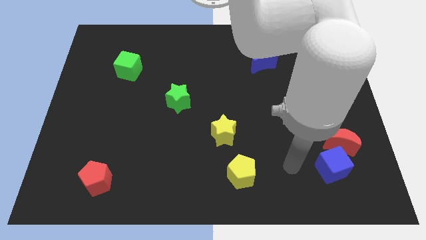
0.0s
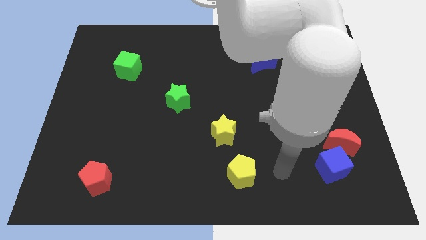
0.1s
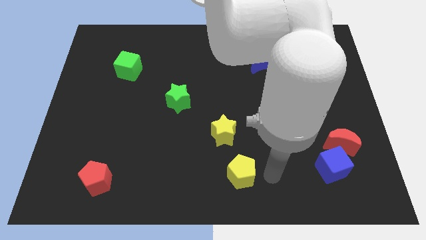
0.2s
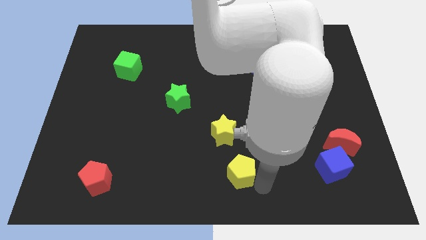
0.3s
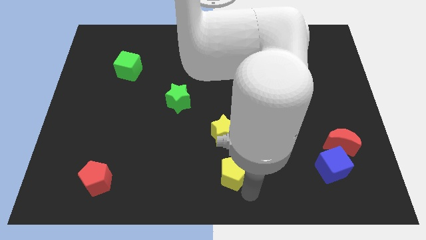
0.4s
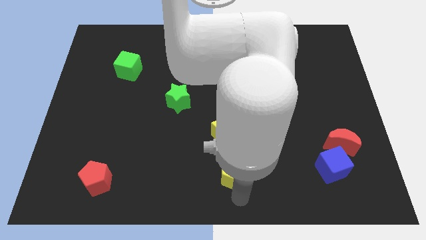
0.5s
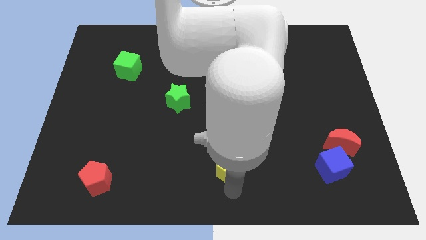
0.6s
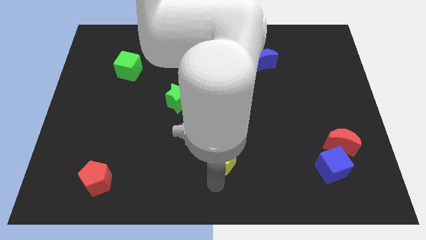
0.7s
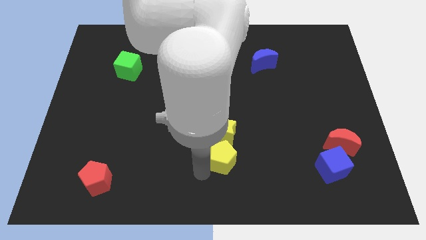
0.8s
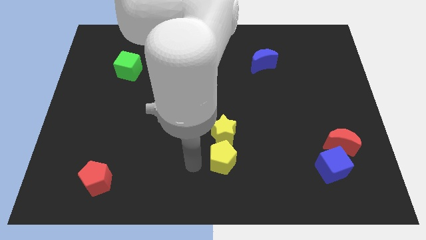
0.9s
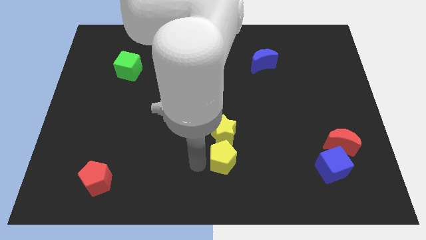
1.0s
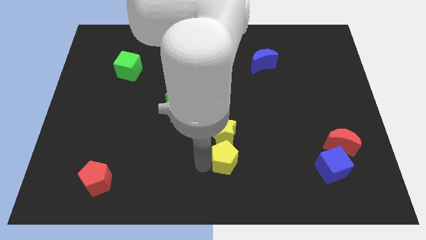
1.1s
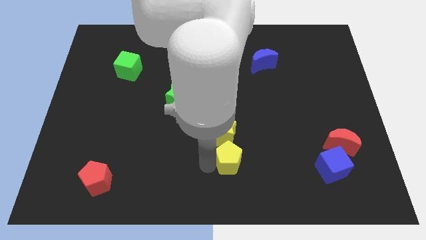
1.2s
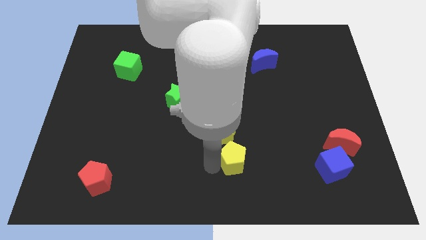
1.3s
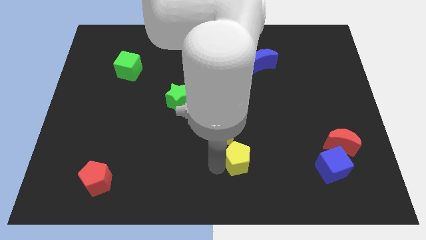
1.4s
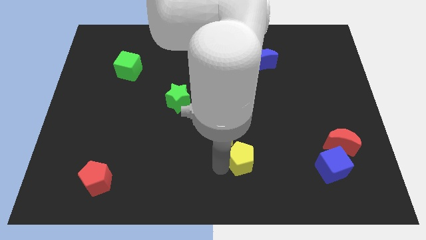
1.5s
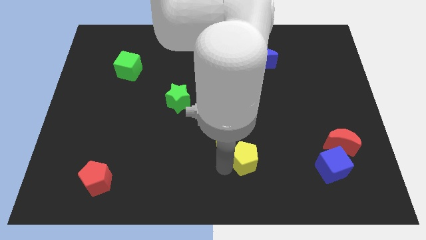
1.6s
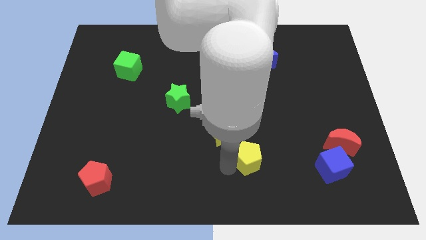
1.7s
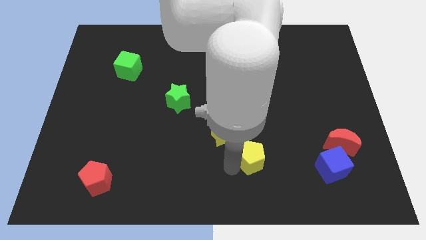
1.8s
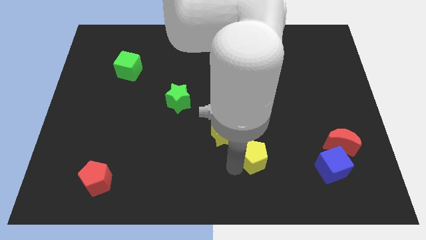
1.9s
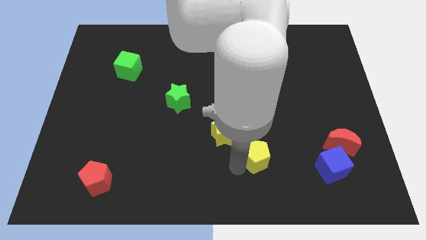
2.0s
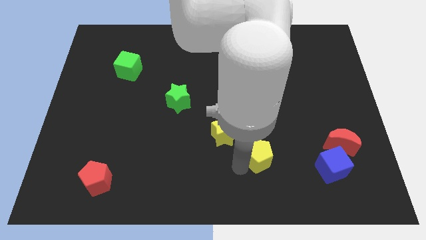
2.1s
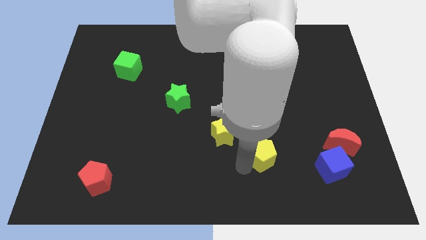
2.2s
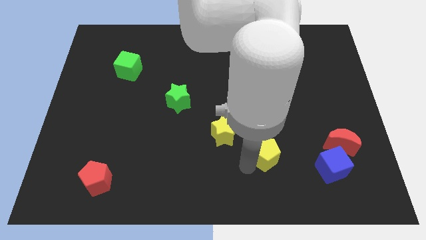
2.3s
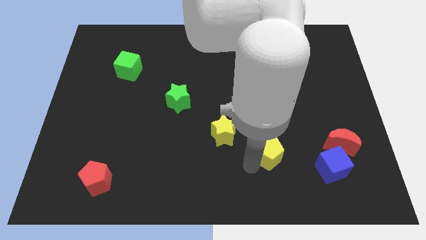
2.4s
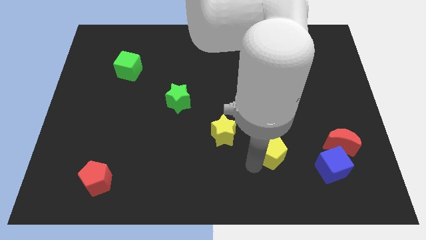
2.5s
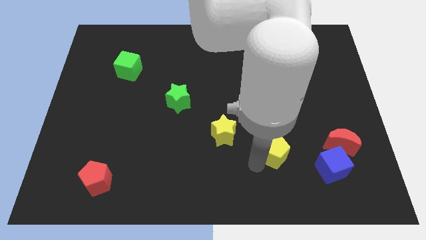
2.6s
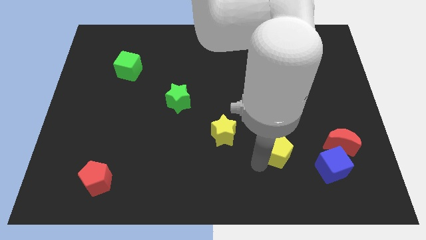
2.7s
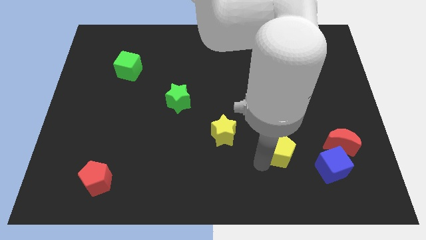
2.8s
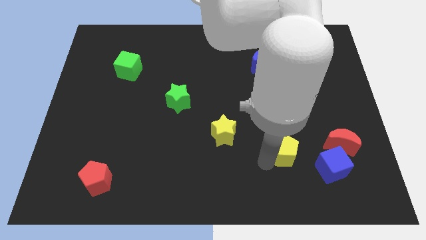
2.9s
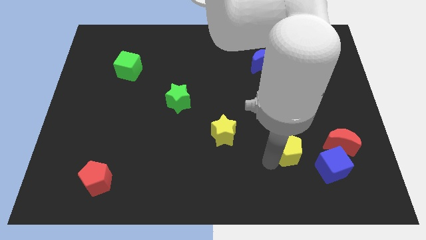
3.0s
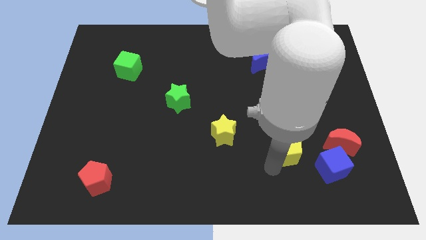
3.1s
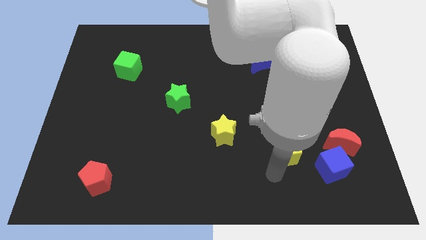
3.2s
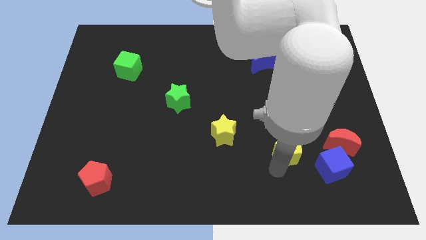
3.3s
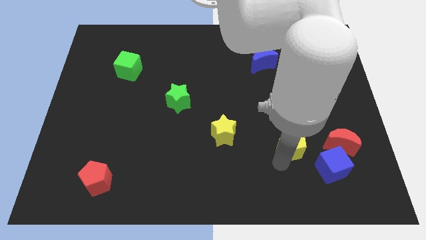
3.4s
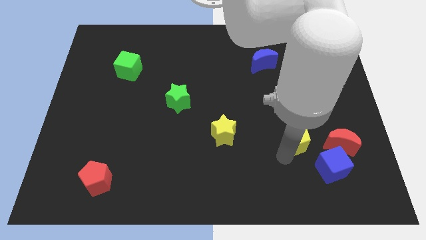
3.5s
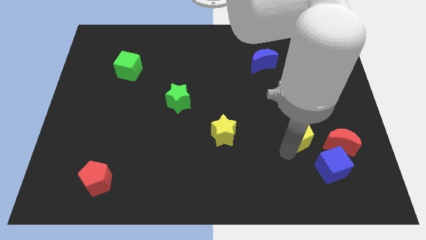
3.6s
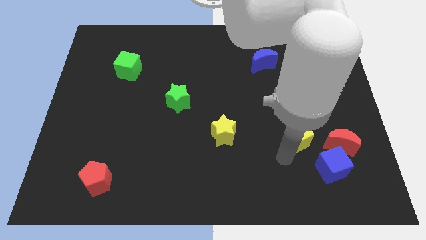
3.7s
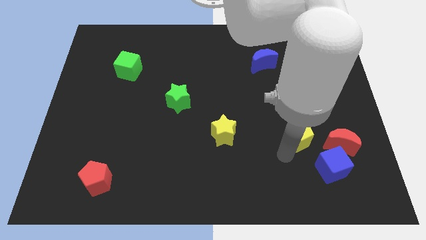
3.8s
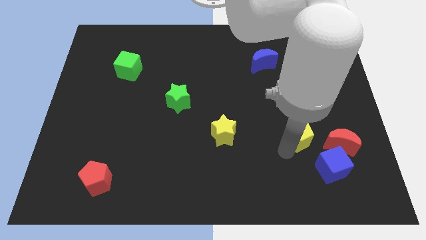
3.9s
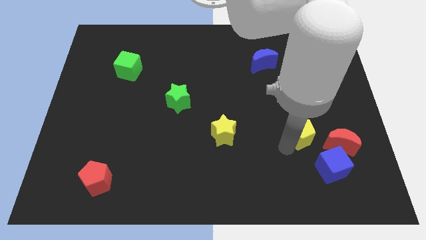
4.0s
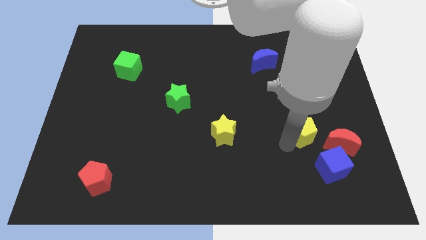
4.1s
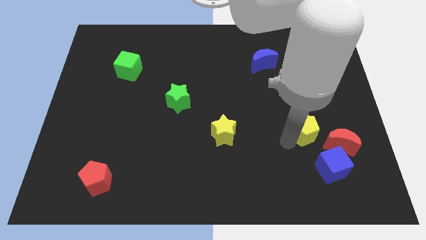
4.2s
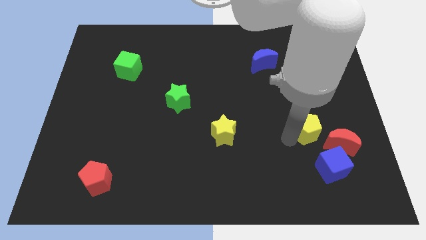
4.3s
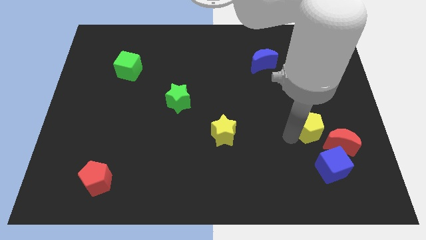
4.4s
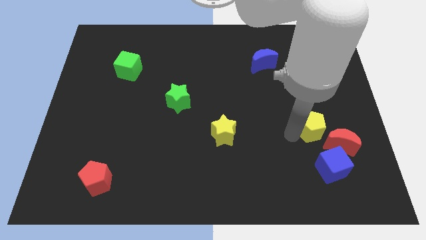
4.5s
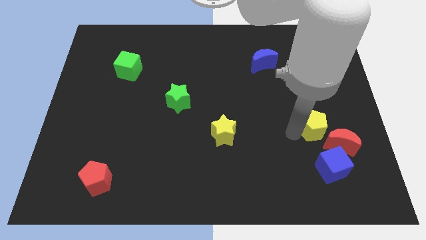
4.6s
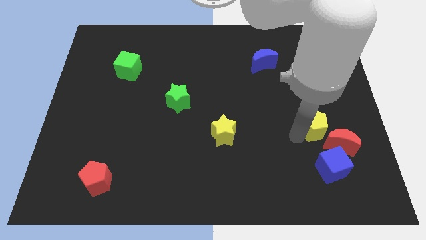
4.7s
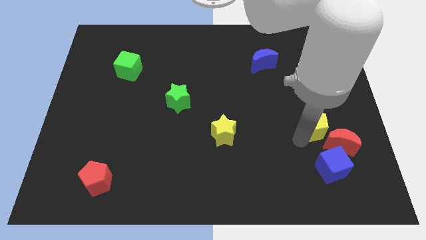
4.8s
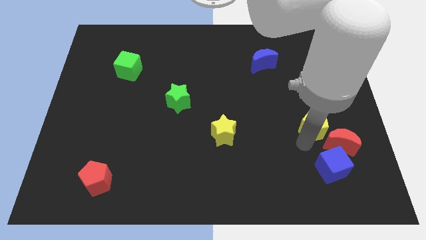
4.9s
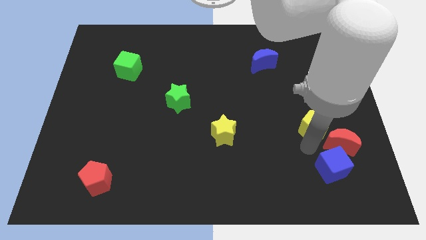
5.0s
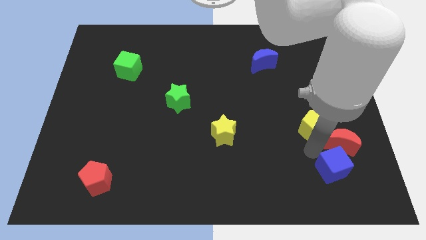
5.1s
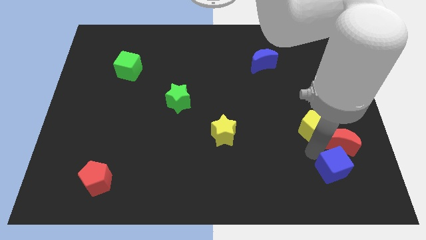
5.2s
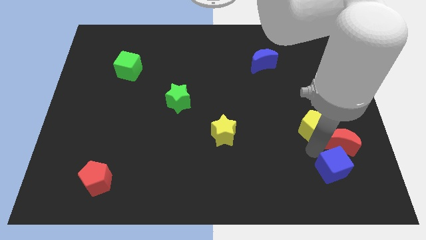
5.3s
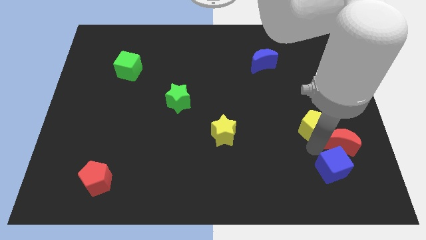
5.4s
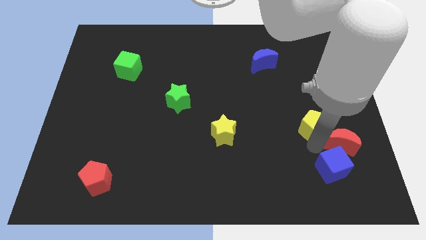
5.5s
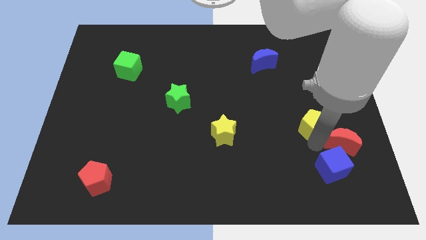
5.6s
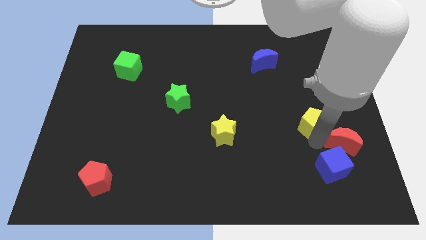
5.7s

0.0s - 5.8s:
slide the yellow pentagon upwards and to the right diagonally

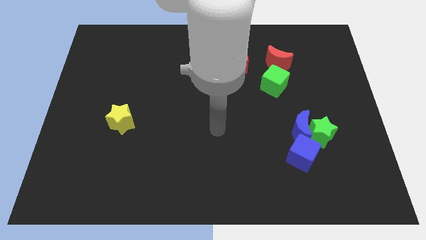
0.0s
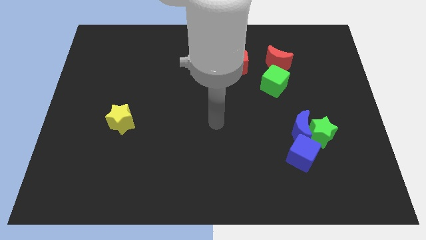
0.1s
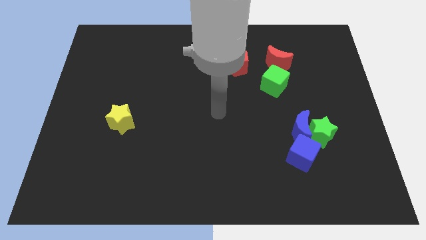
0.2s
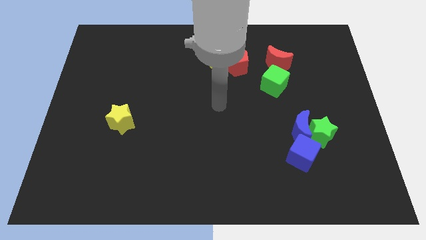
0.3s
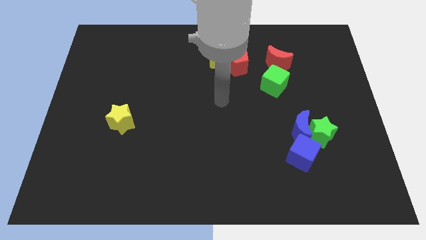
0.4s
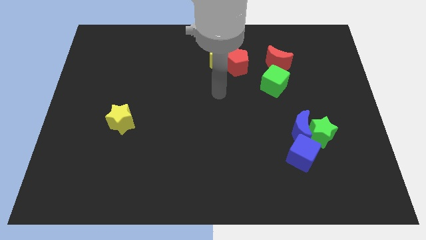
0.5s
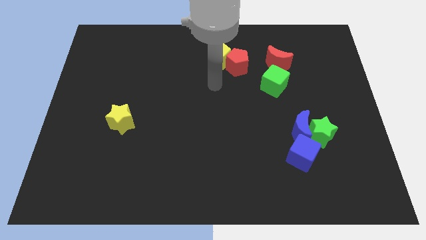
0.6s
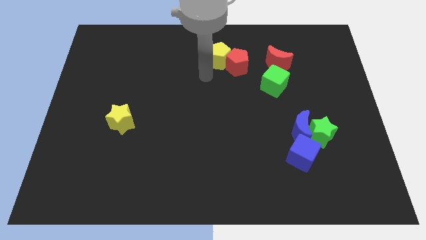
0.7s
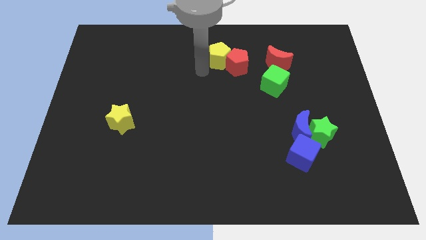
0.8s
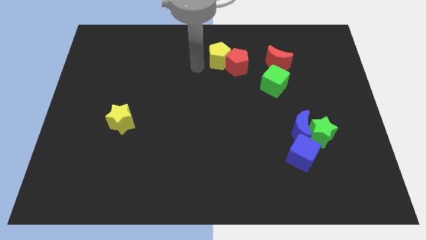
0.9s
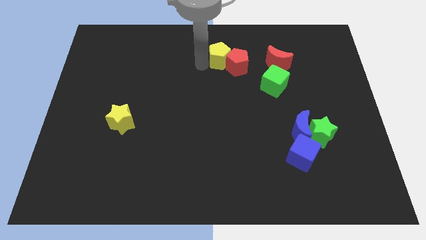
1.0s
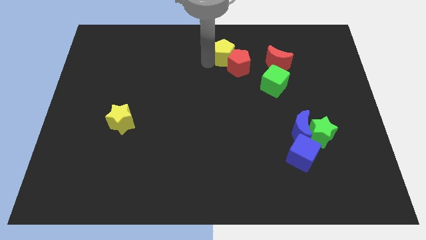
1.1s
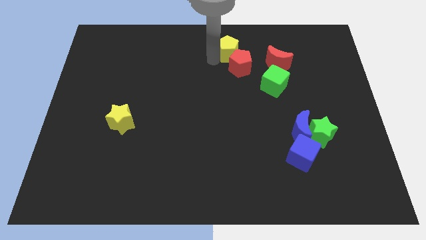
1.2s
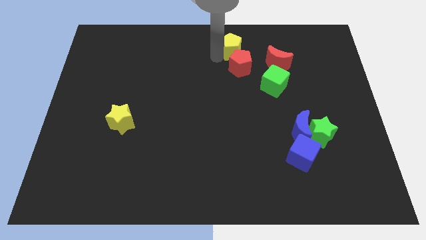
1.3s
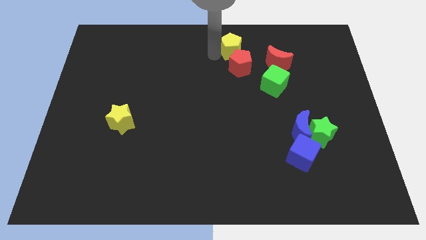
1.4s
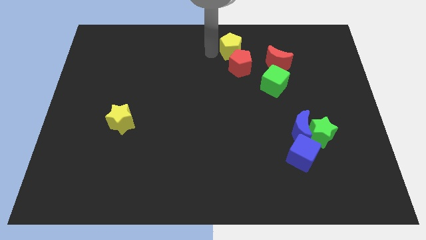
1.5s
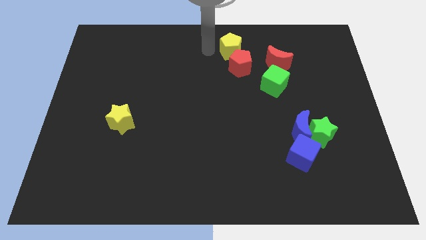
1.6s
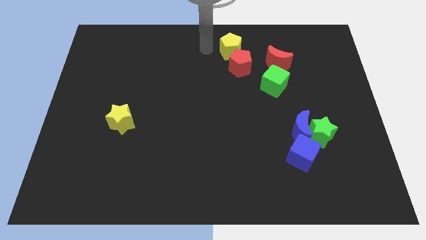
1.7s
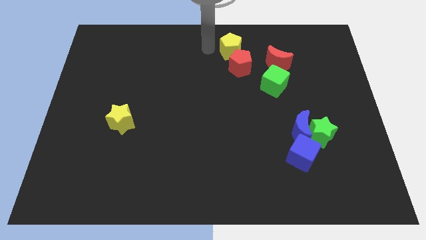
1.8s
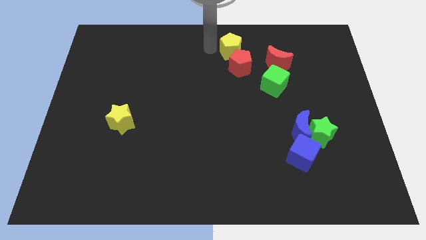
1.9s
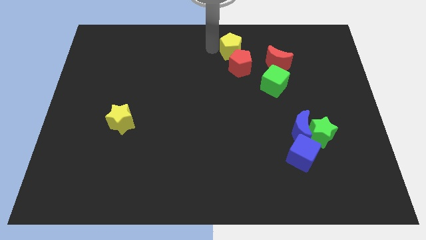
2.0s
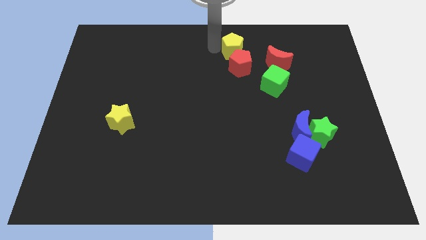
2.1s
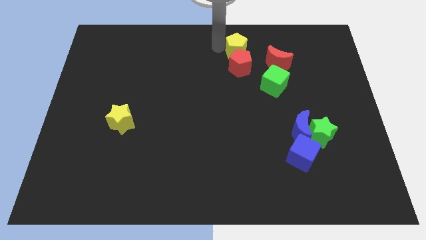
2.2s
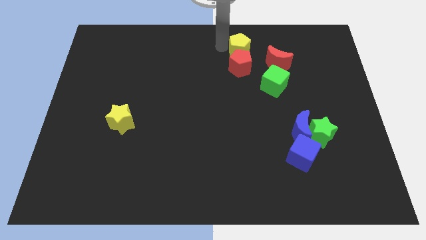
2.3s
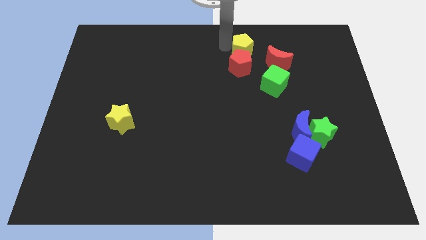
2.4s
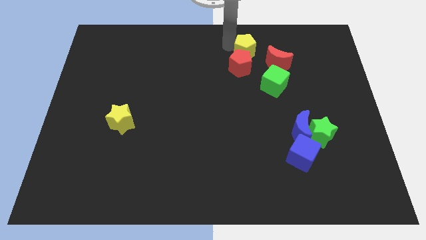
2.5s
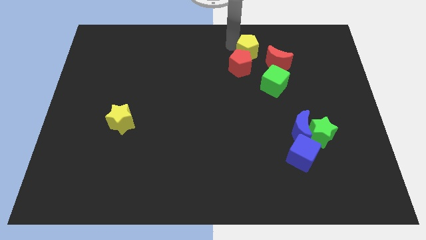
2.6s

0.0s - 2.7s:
slightly move the yellow pentagon to the right
